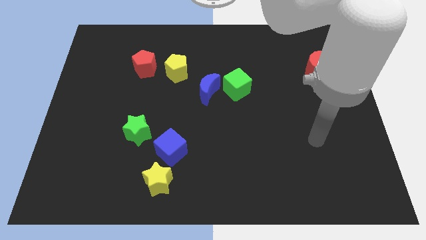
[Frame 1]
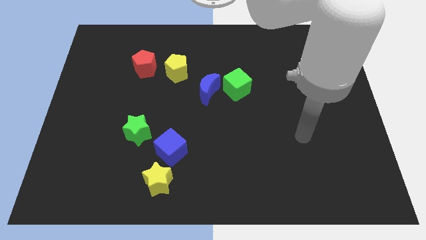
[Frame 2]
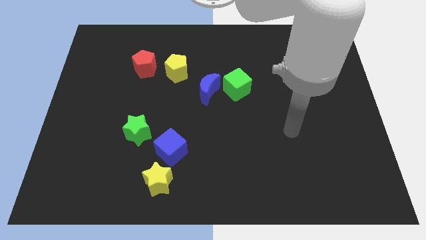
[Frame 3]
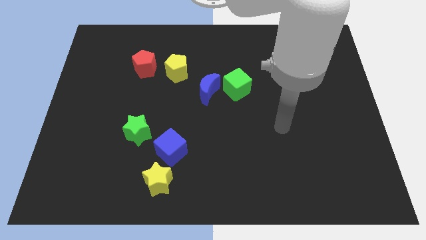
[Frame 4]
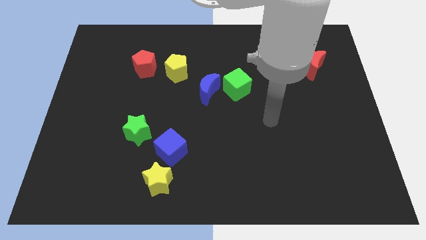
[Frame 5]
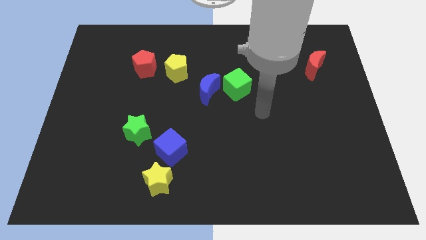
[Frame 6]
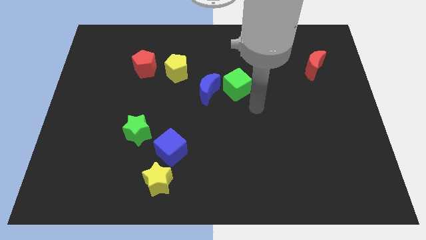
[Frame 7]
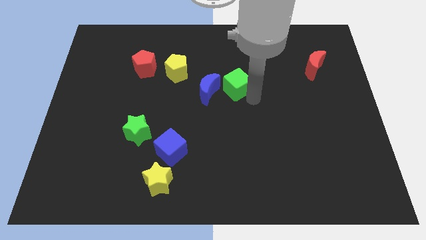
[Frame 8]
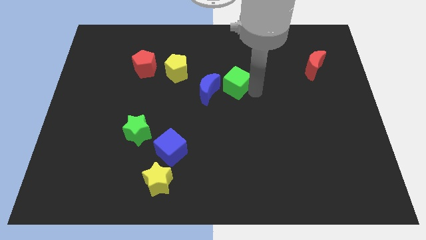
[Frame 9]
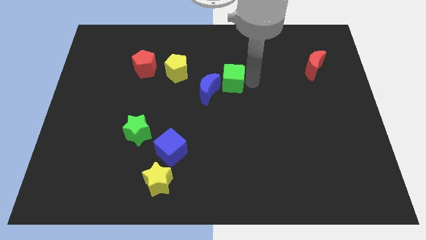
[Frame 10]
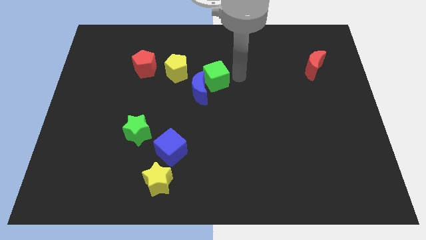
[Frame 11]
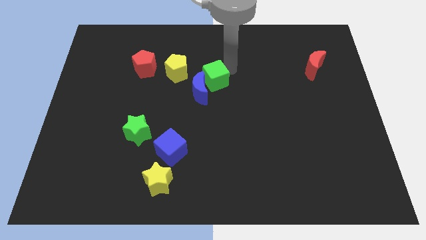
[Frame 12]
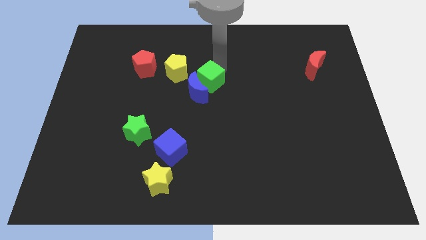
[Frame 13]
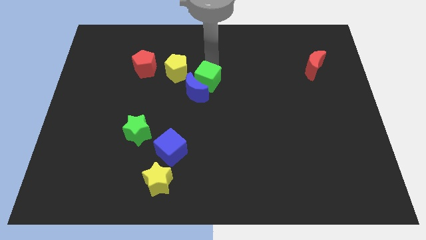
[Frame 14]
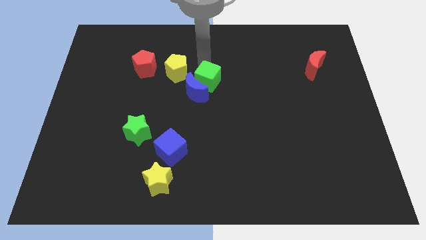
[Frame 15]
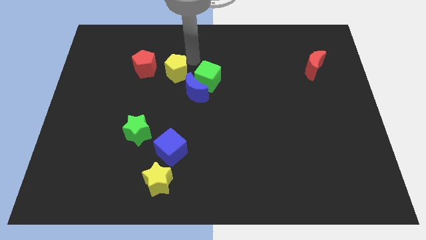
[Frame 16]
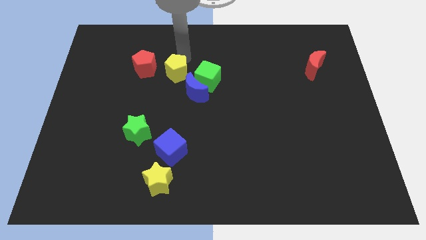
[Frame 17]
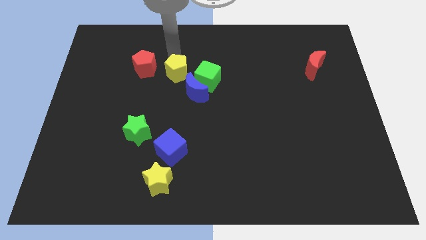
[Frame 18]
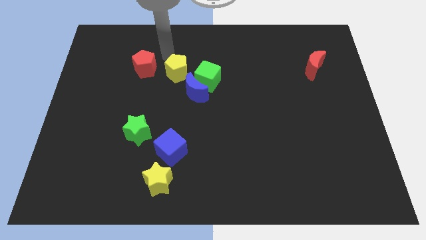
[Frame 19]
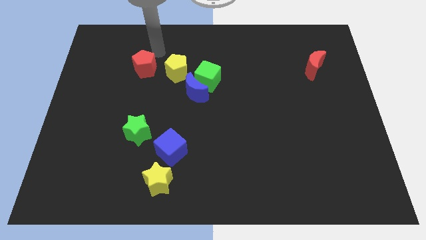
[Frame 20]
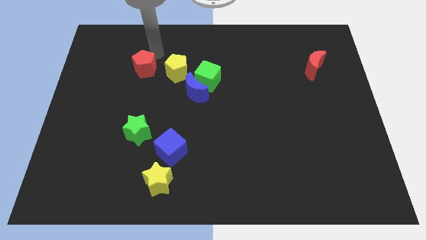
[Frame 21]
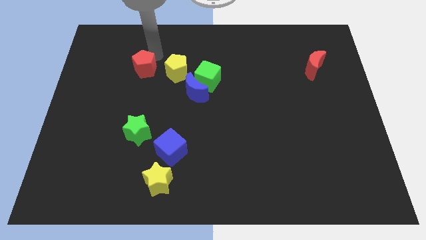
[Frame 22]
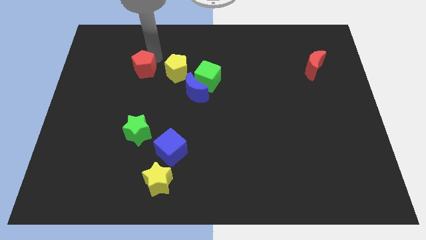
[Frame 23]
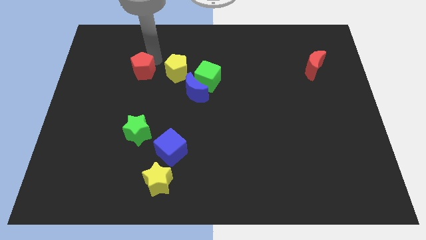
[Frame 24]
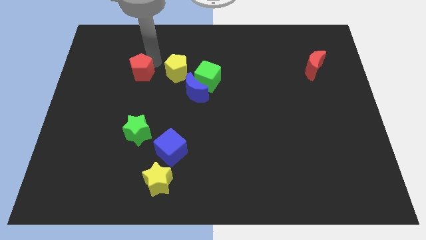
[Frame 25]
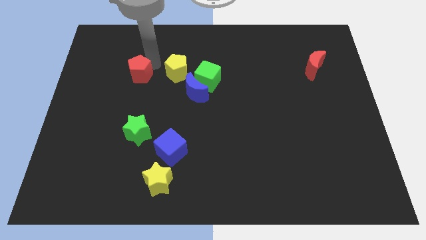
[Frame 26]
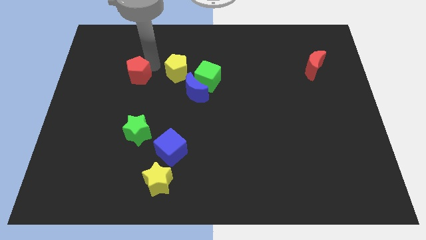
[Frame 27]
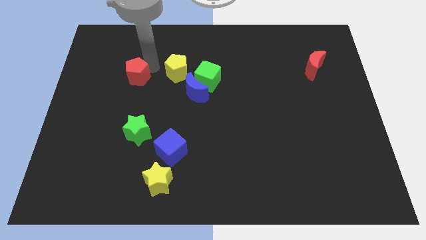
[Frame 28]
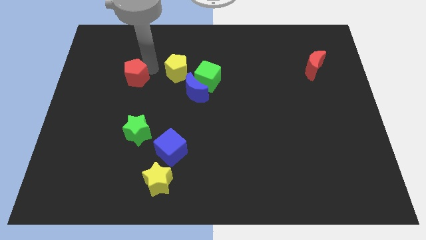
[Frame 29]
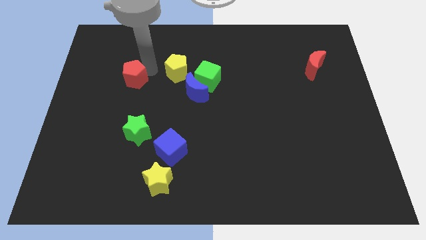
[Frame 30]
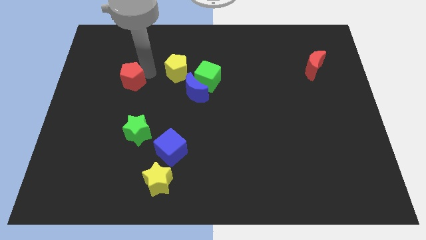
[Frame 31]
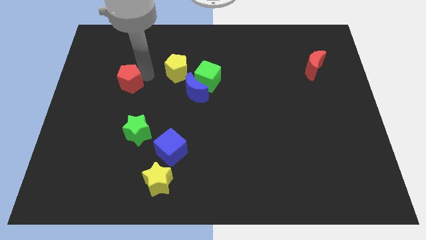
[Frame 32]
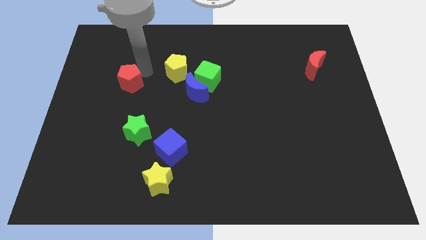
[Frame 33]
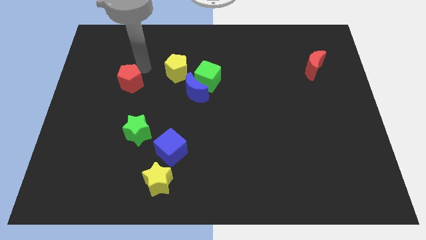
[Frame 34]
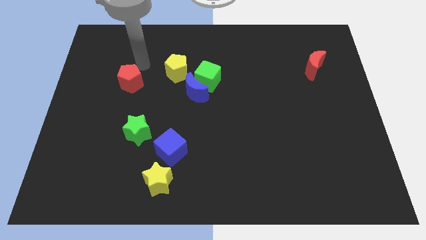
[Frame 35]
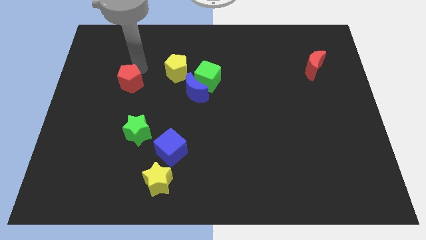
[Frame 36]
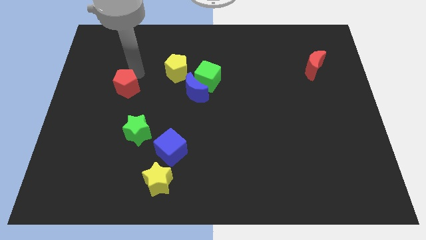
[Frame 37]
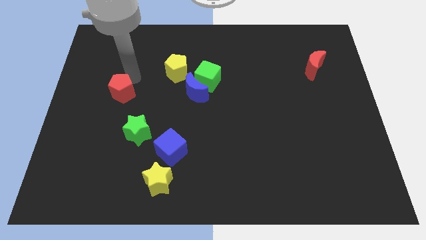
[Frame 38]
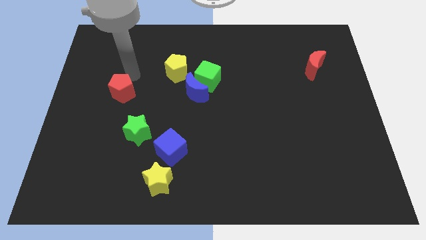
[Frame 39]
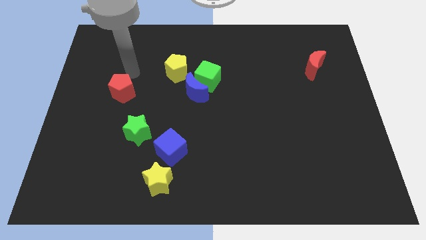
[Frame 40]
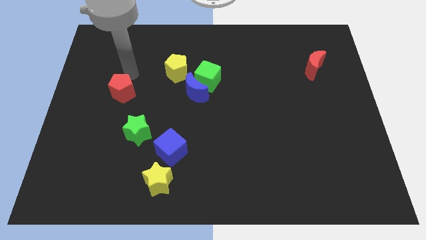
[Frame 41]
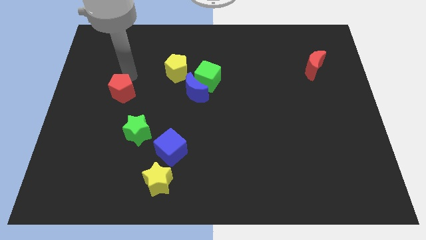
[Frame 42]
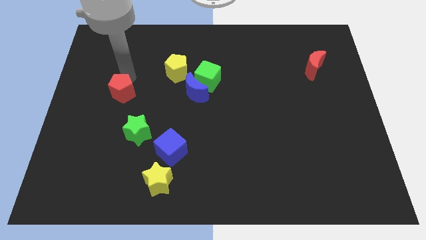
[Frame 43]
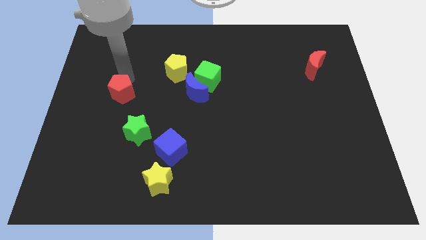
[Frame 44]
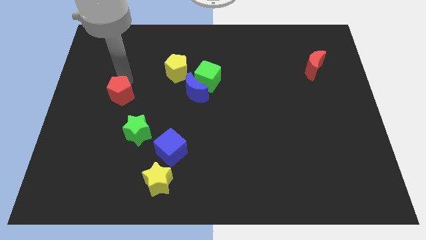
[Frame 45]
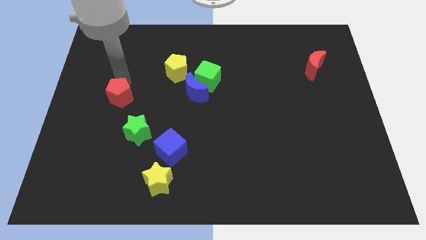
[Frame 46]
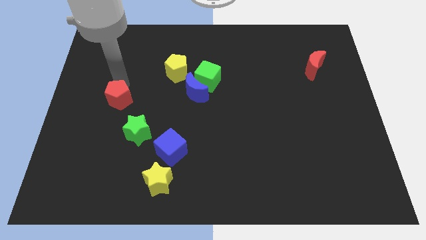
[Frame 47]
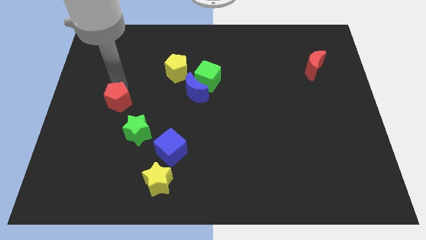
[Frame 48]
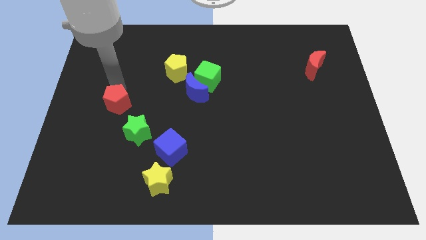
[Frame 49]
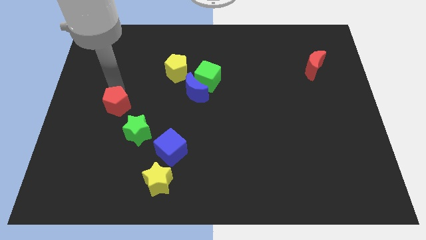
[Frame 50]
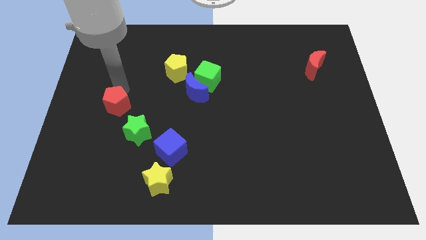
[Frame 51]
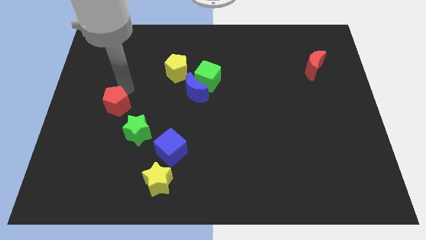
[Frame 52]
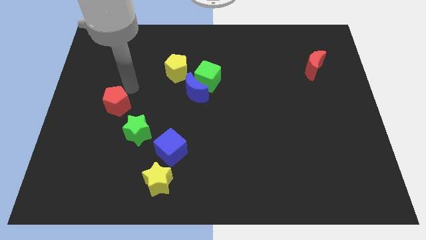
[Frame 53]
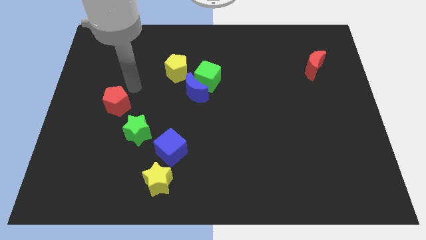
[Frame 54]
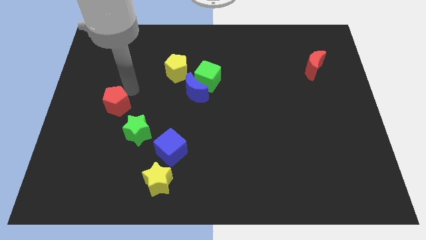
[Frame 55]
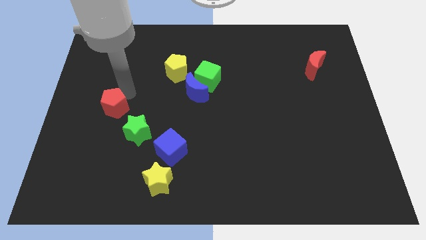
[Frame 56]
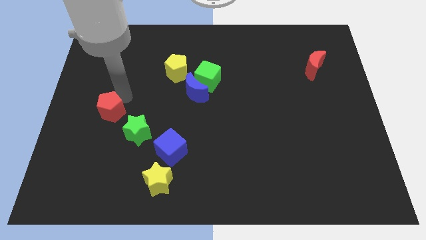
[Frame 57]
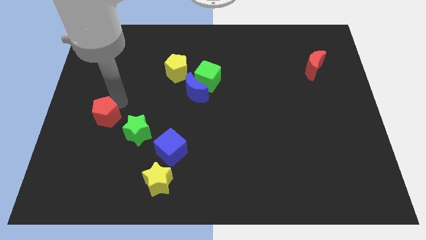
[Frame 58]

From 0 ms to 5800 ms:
move the red pentagon just left of the green star

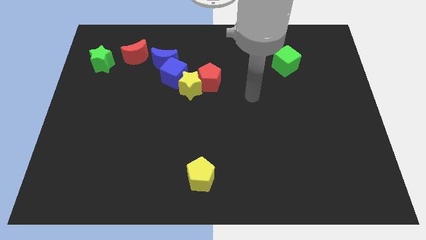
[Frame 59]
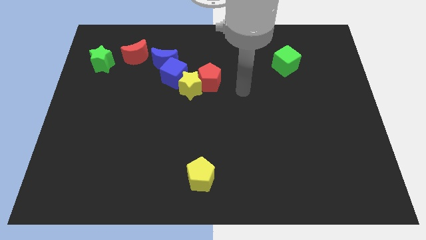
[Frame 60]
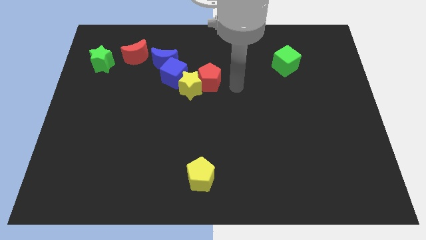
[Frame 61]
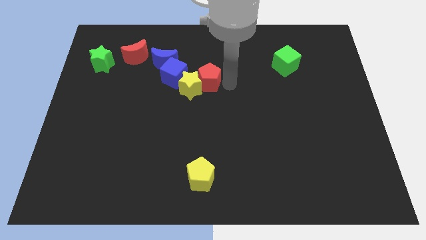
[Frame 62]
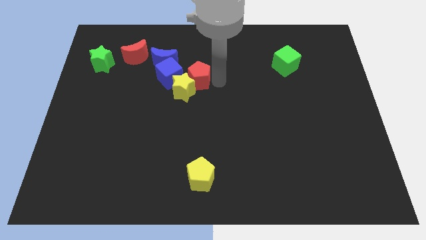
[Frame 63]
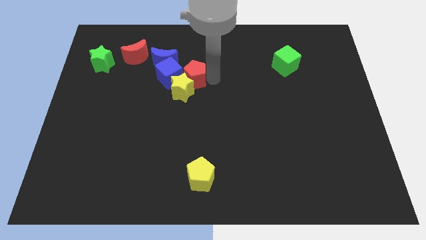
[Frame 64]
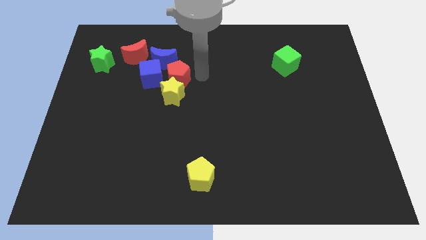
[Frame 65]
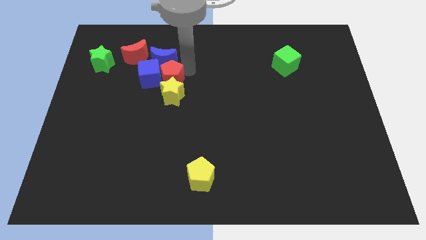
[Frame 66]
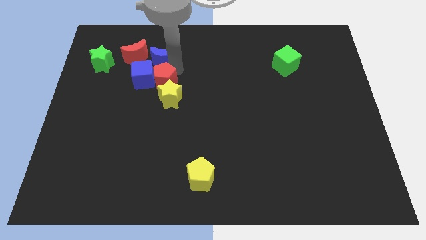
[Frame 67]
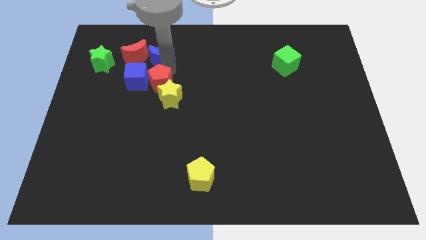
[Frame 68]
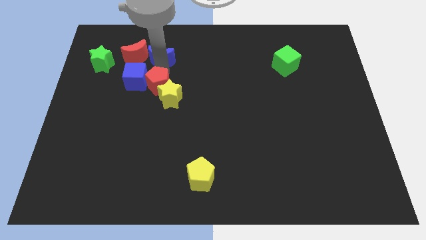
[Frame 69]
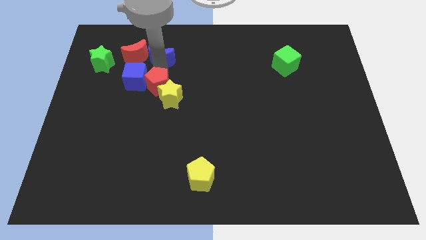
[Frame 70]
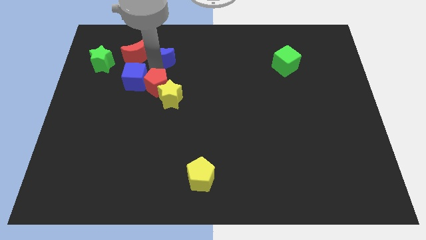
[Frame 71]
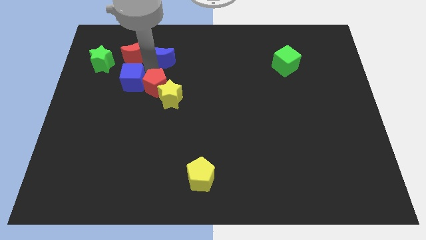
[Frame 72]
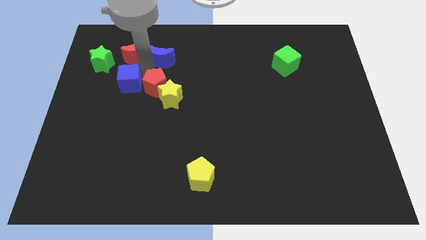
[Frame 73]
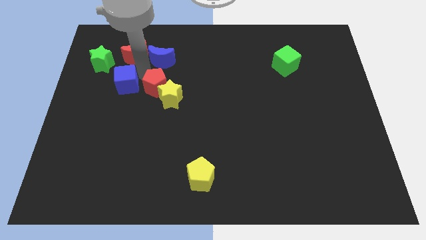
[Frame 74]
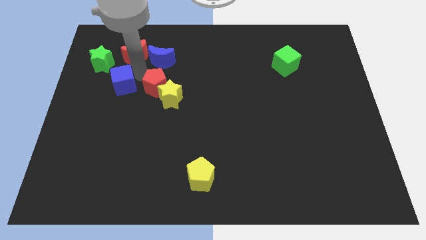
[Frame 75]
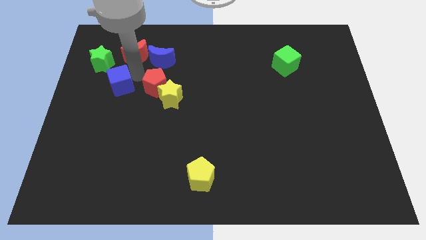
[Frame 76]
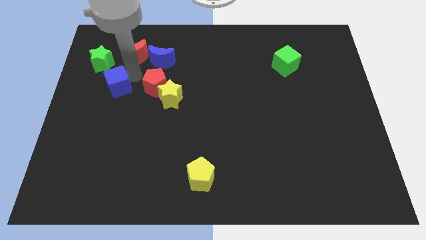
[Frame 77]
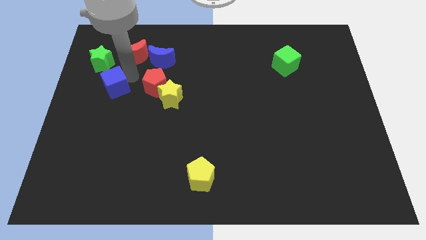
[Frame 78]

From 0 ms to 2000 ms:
push the blue cube to the bottom of the green star
